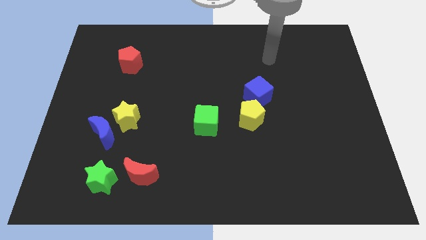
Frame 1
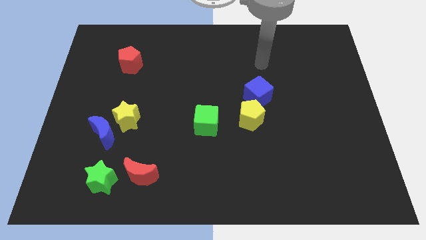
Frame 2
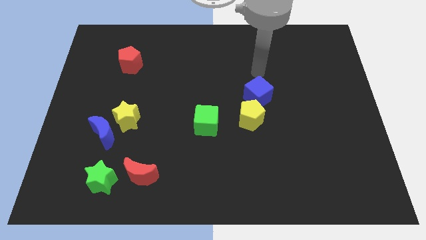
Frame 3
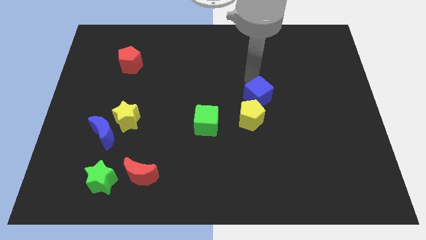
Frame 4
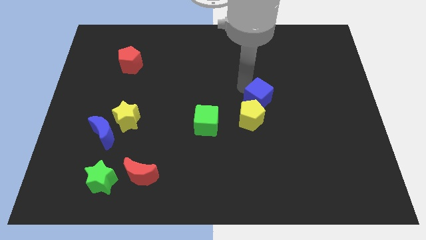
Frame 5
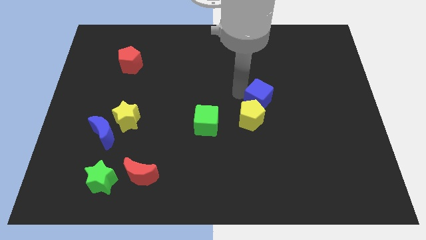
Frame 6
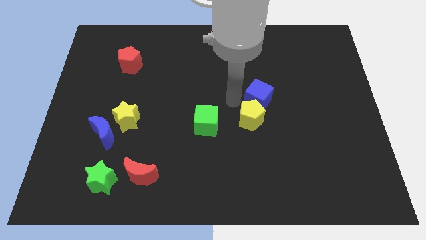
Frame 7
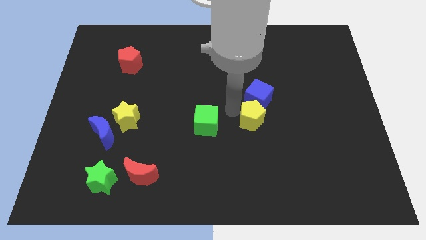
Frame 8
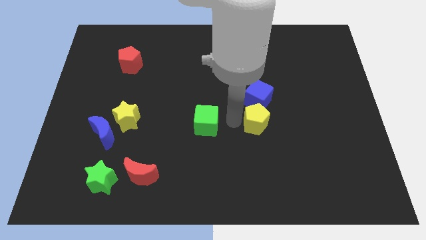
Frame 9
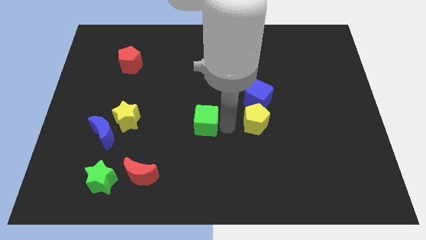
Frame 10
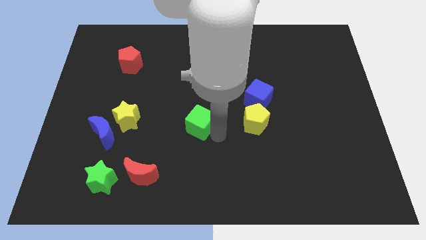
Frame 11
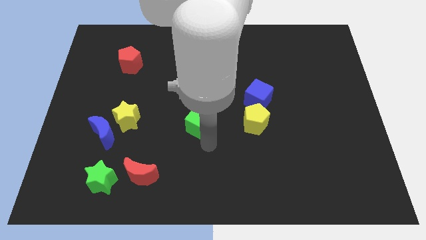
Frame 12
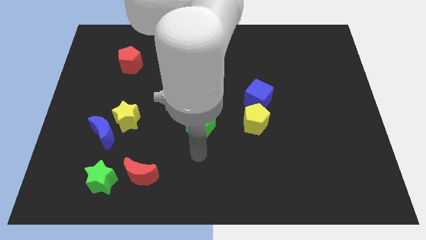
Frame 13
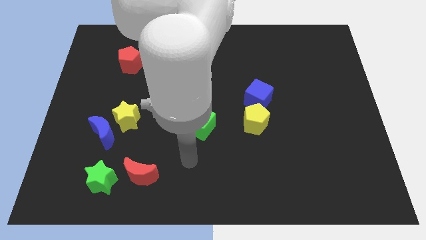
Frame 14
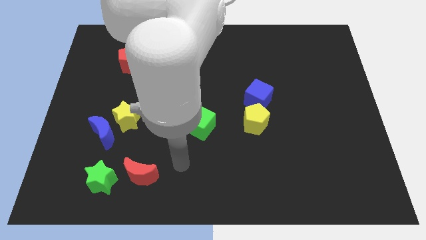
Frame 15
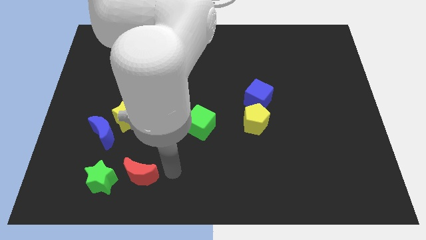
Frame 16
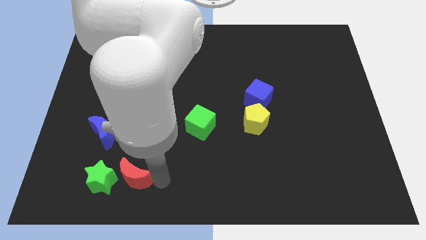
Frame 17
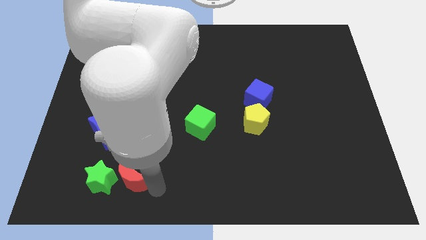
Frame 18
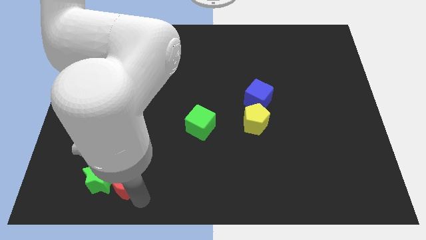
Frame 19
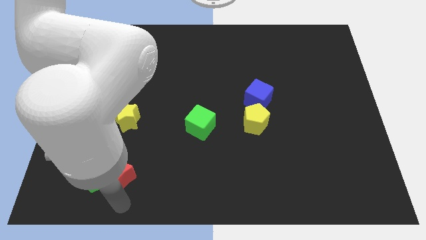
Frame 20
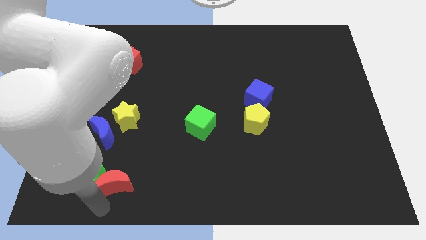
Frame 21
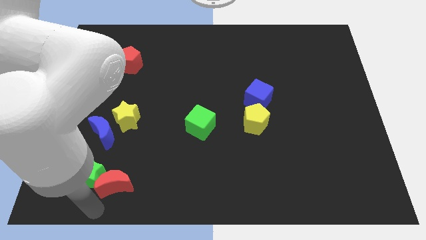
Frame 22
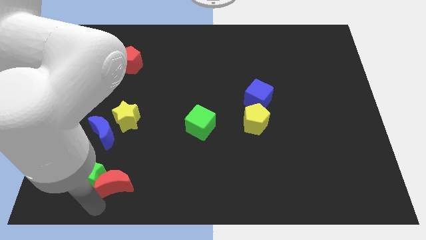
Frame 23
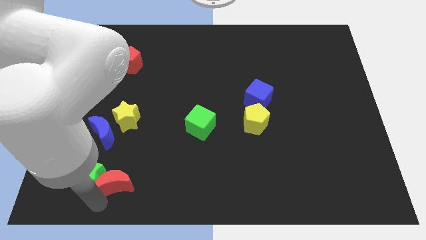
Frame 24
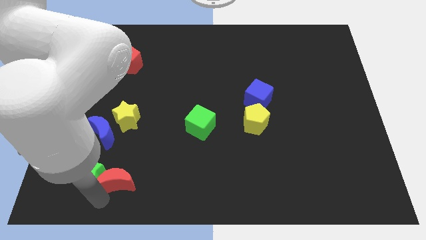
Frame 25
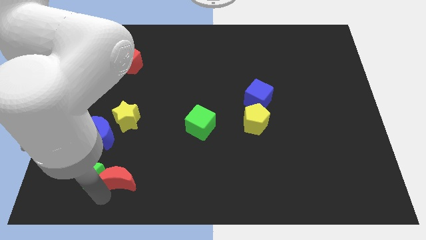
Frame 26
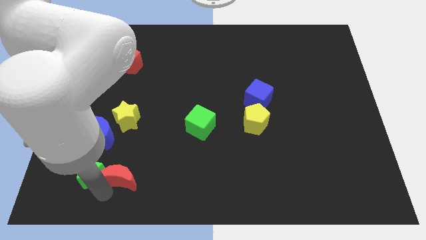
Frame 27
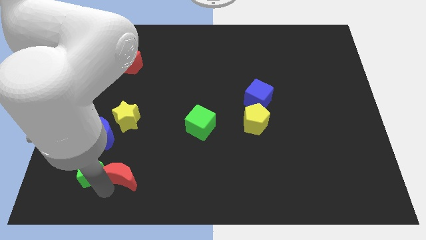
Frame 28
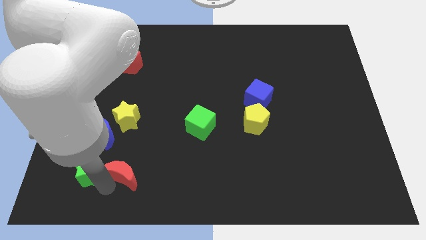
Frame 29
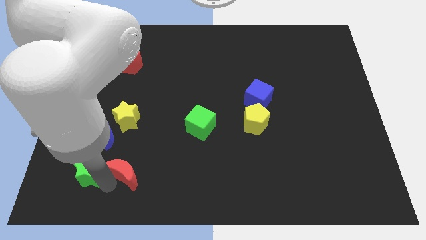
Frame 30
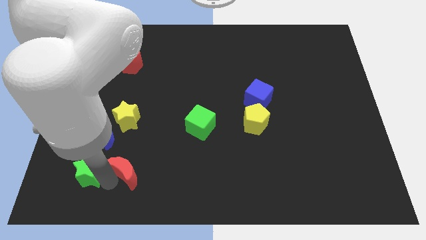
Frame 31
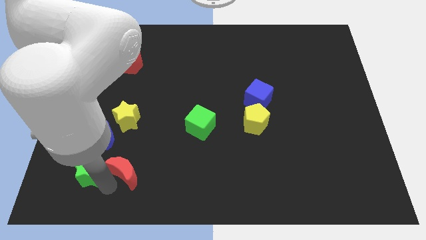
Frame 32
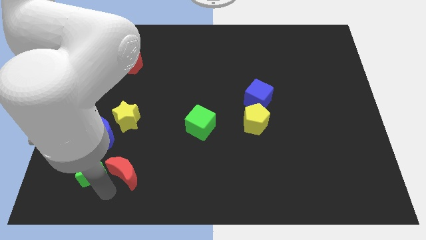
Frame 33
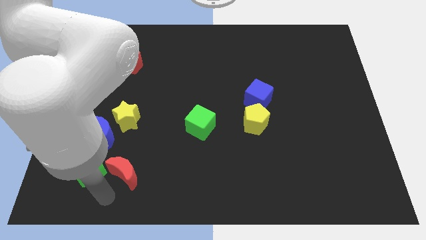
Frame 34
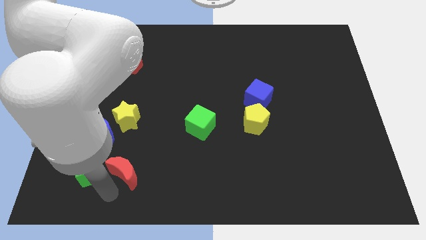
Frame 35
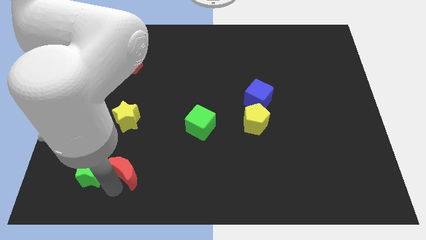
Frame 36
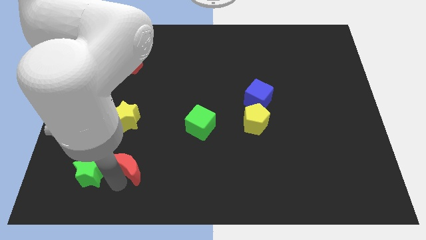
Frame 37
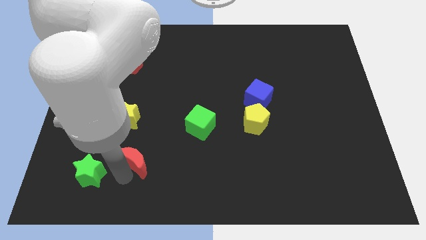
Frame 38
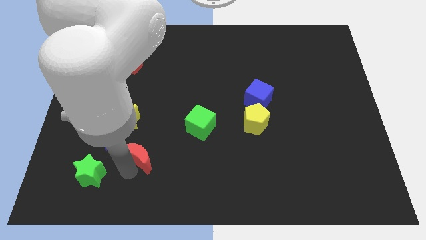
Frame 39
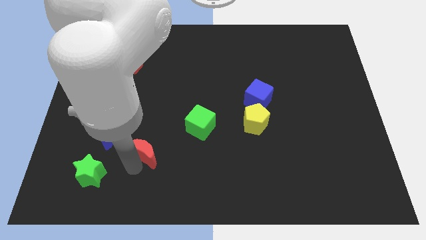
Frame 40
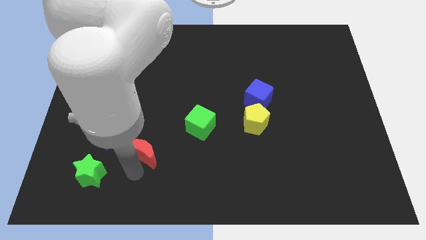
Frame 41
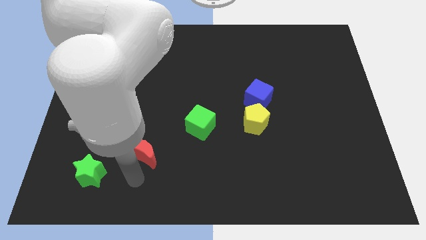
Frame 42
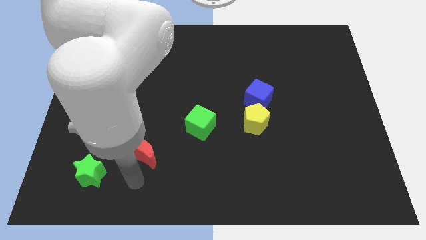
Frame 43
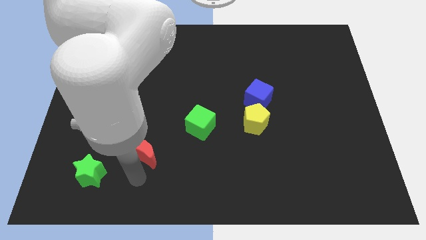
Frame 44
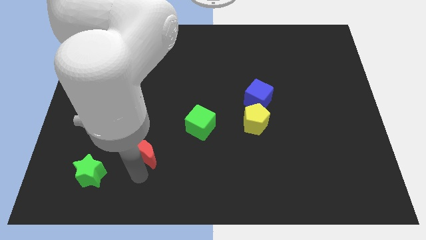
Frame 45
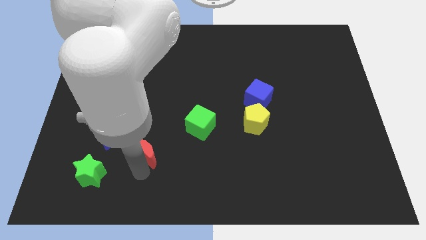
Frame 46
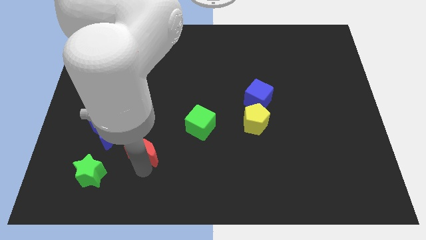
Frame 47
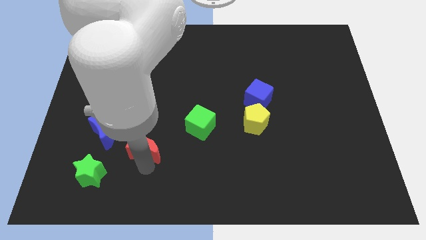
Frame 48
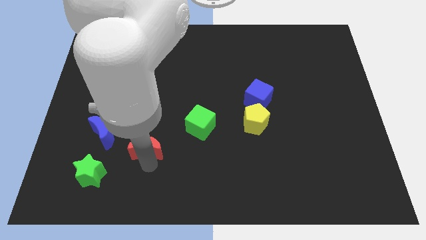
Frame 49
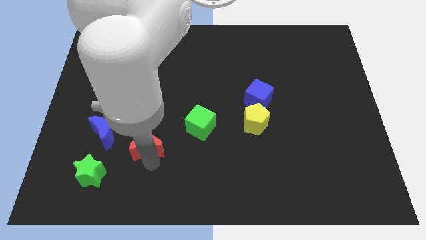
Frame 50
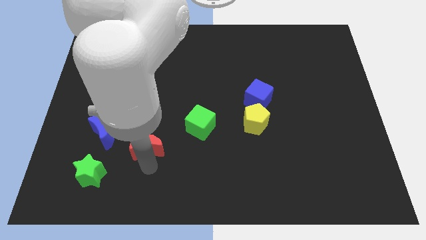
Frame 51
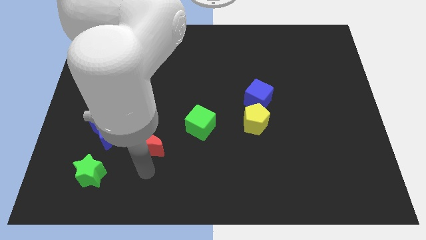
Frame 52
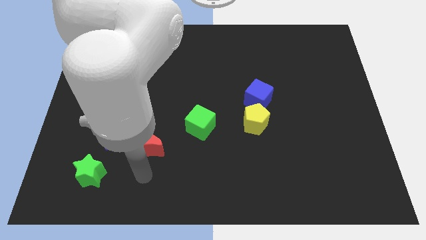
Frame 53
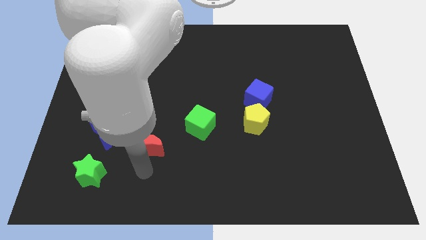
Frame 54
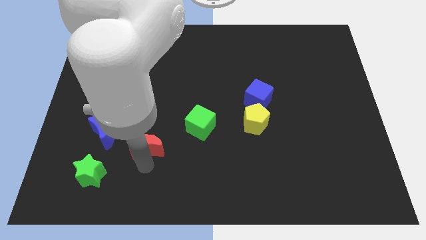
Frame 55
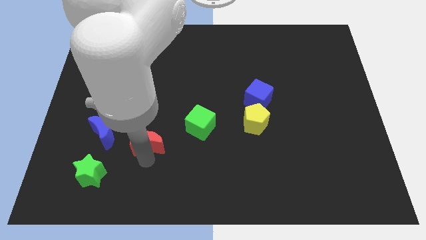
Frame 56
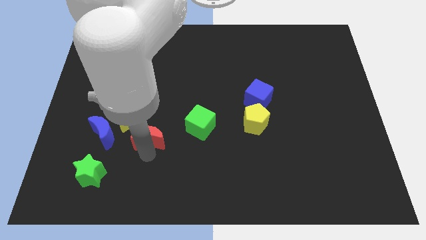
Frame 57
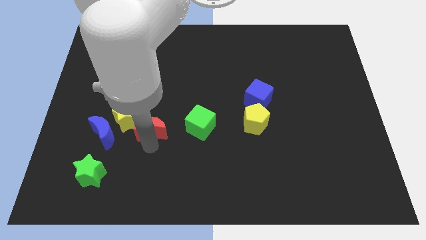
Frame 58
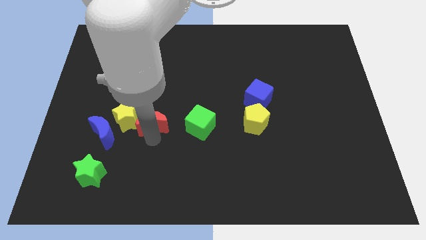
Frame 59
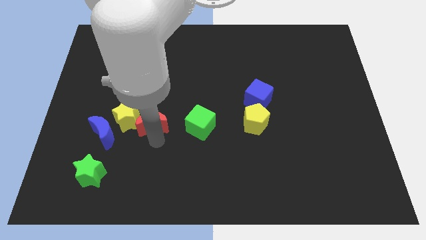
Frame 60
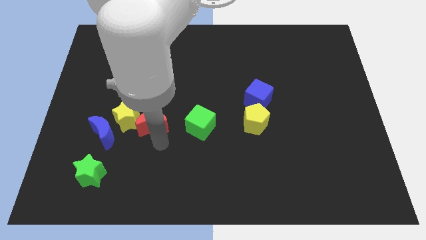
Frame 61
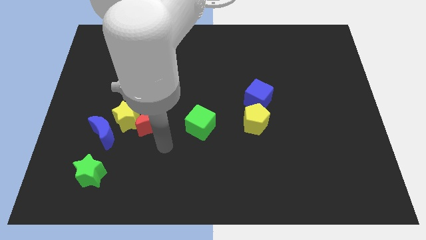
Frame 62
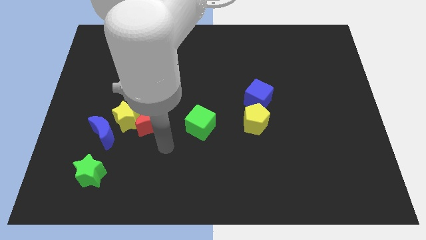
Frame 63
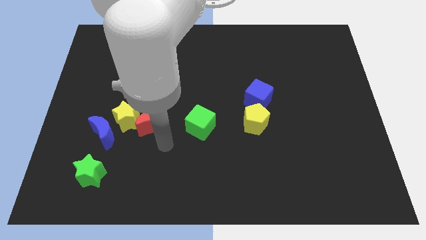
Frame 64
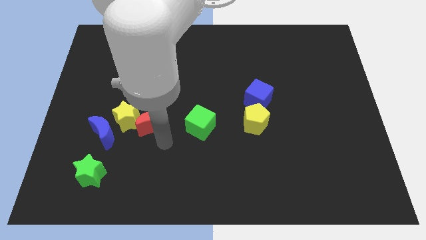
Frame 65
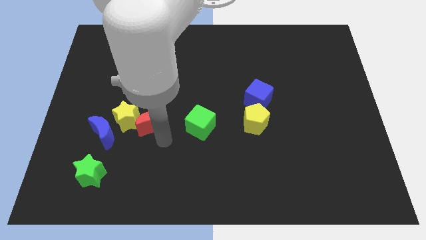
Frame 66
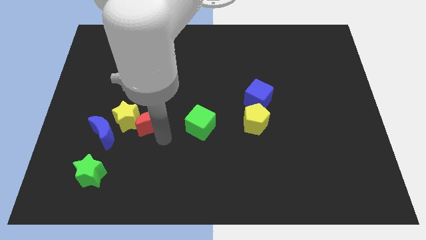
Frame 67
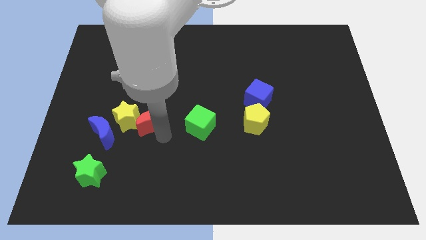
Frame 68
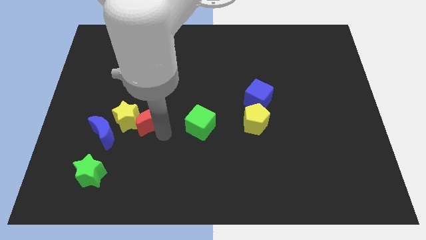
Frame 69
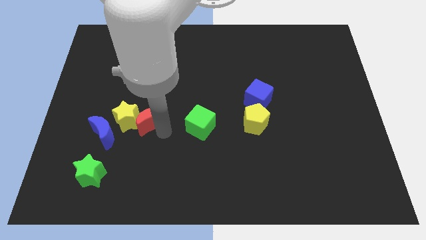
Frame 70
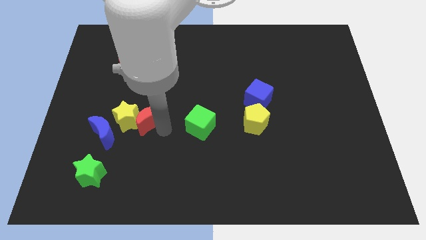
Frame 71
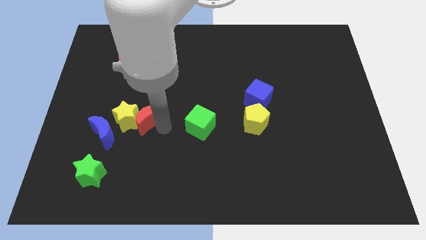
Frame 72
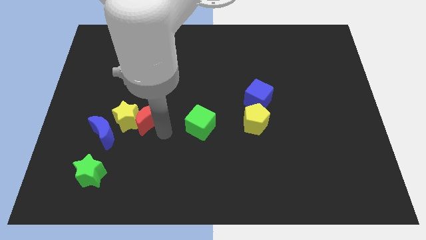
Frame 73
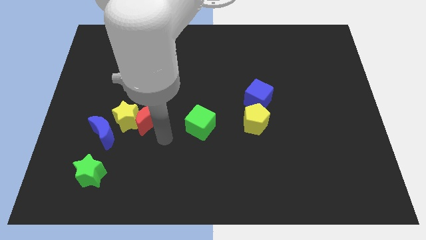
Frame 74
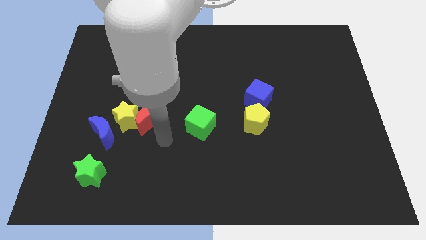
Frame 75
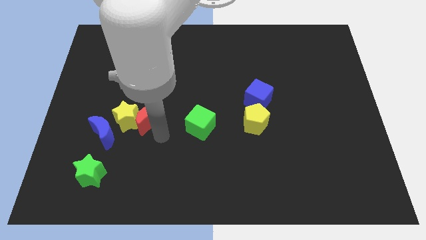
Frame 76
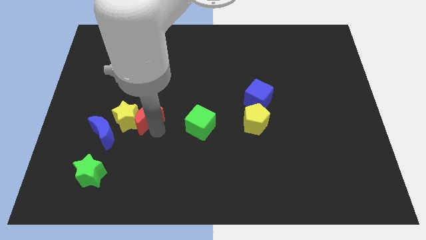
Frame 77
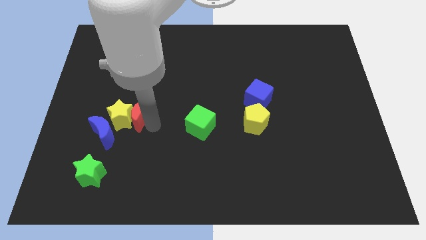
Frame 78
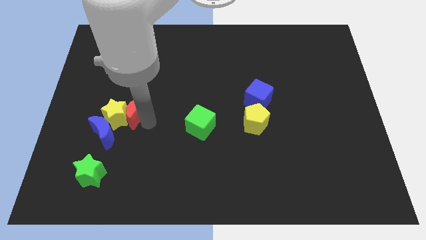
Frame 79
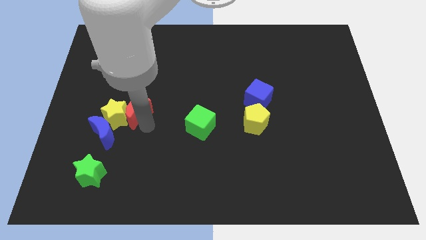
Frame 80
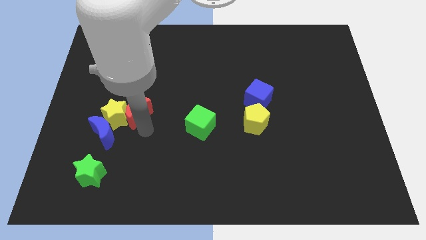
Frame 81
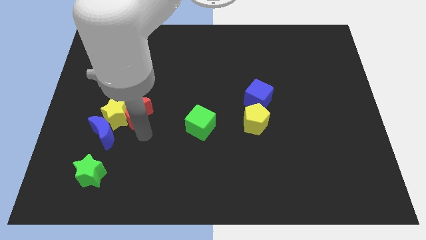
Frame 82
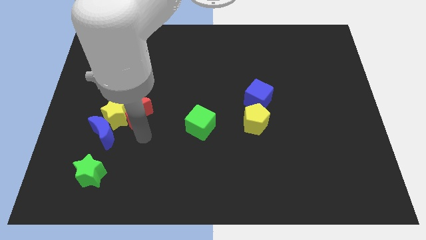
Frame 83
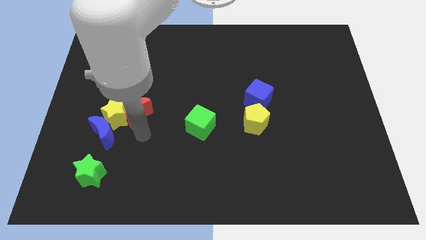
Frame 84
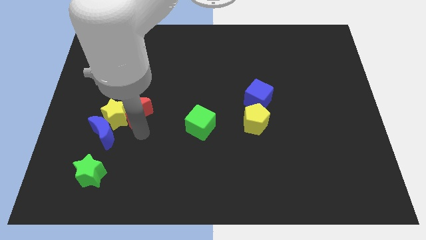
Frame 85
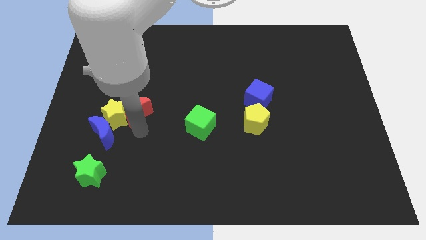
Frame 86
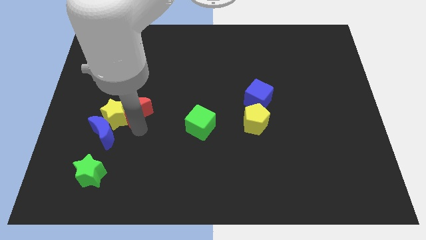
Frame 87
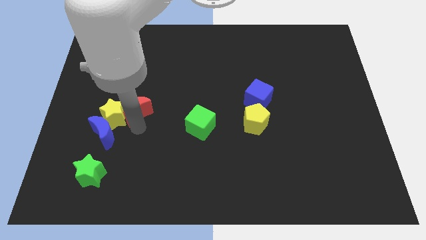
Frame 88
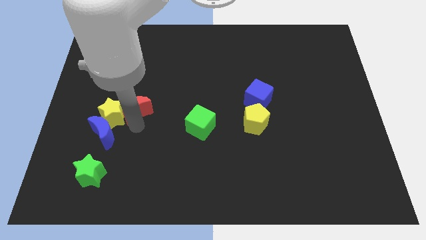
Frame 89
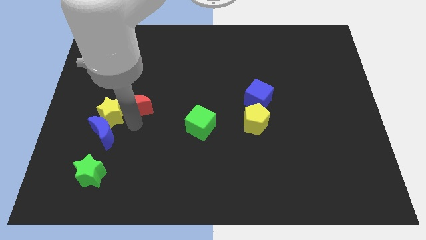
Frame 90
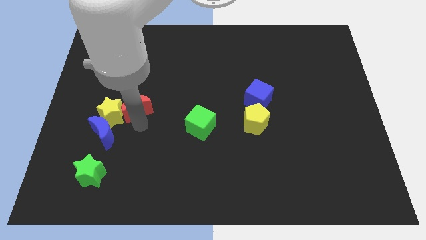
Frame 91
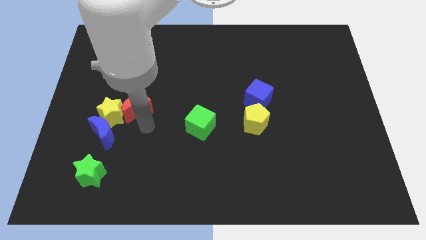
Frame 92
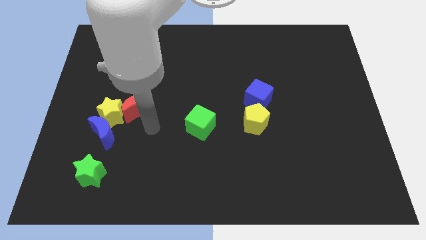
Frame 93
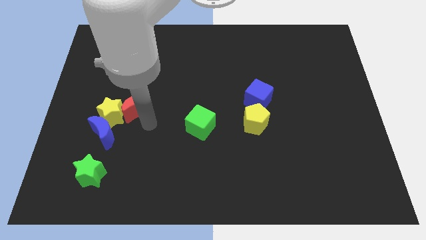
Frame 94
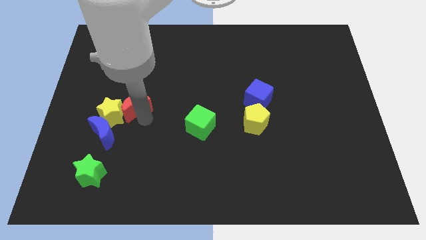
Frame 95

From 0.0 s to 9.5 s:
push the red moon to the bottom of the red pentagon
